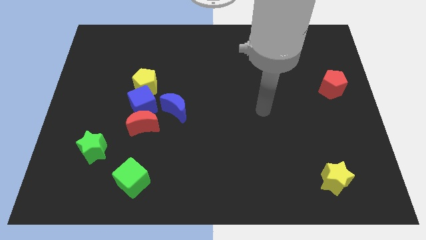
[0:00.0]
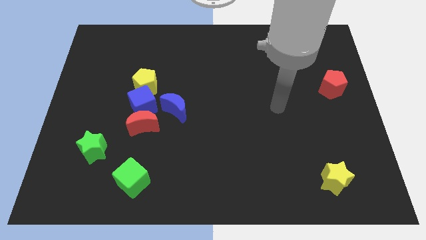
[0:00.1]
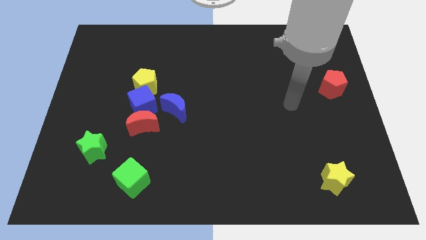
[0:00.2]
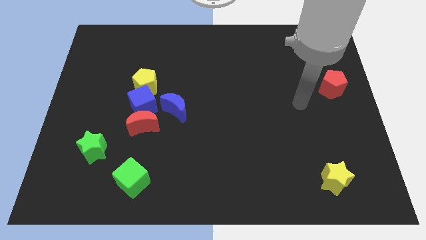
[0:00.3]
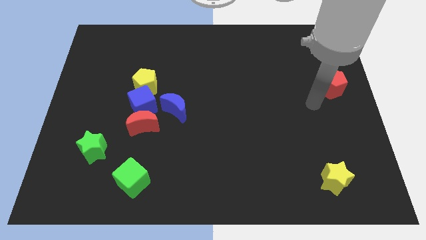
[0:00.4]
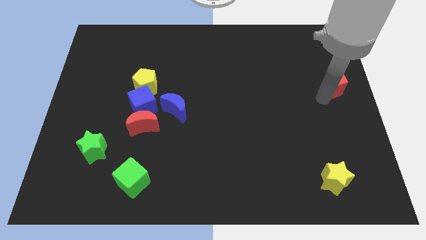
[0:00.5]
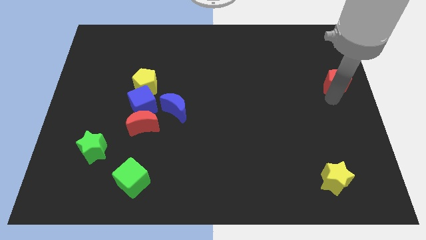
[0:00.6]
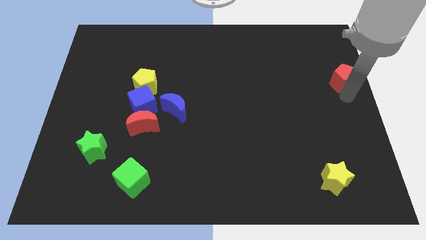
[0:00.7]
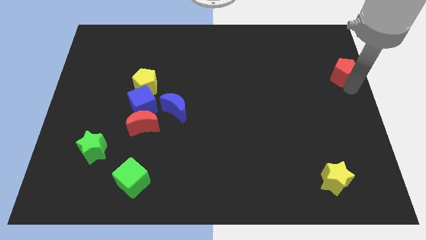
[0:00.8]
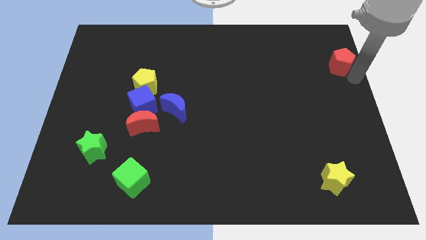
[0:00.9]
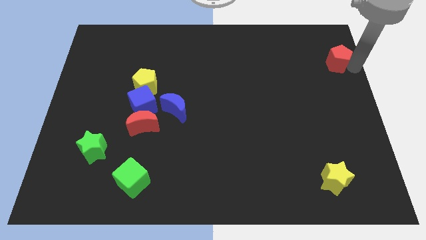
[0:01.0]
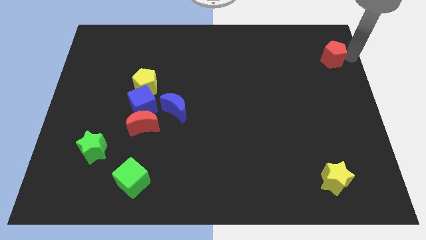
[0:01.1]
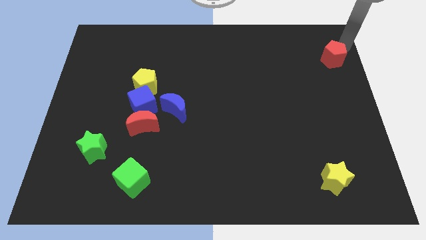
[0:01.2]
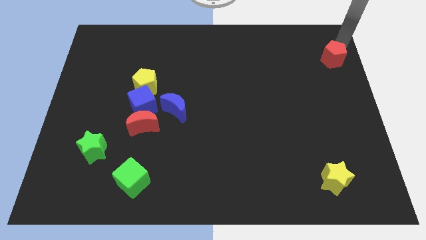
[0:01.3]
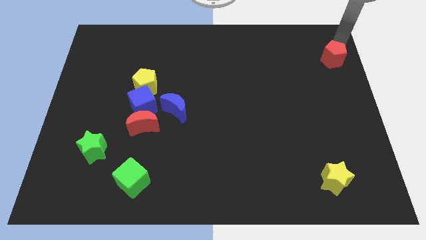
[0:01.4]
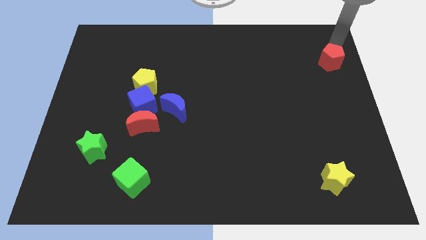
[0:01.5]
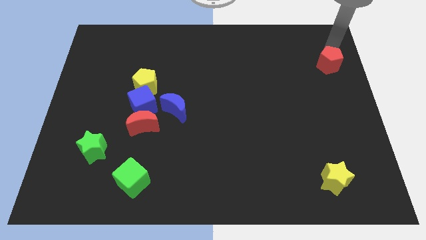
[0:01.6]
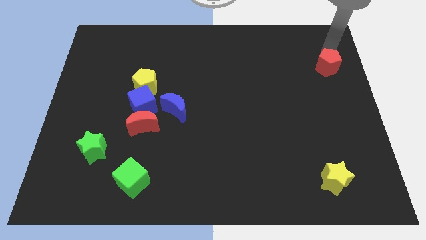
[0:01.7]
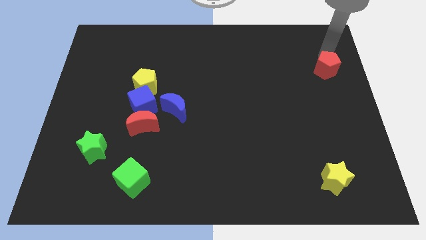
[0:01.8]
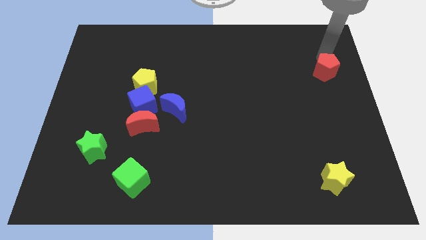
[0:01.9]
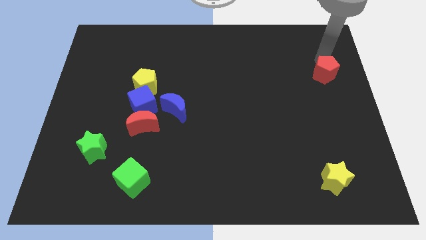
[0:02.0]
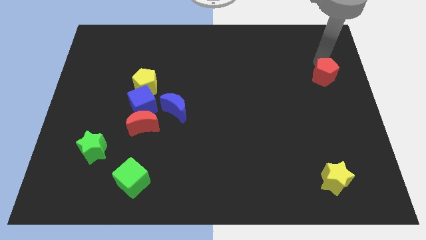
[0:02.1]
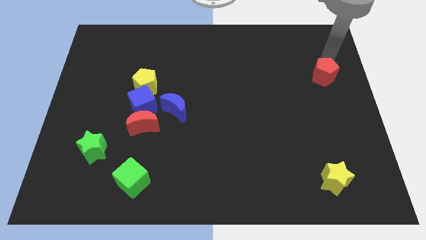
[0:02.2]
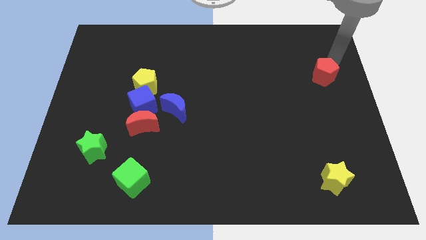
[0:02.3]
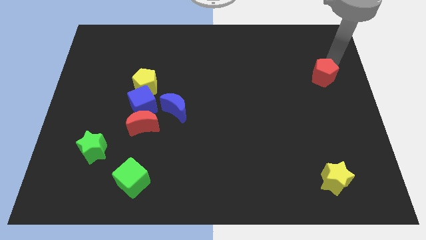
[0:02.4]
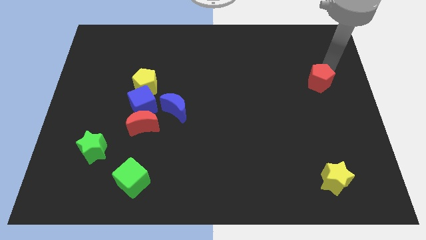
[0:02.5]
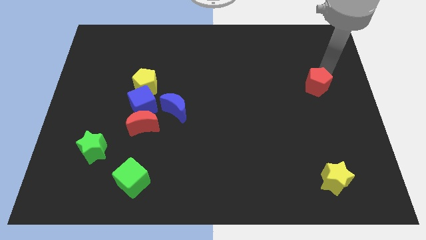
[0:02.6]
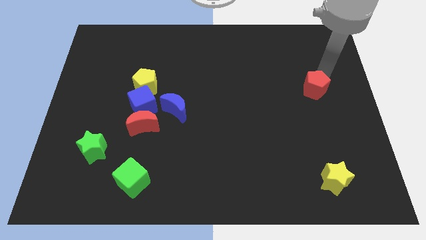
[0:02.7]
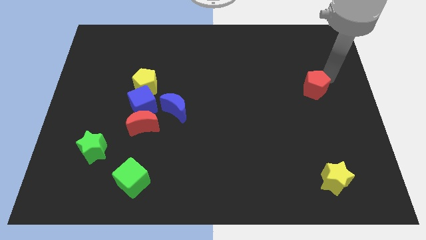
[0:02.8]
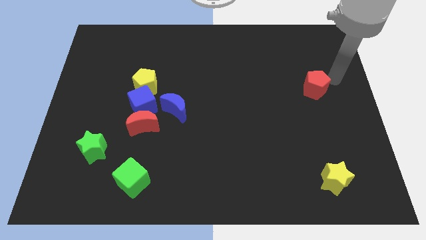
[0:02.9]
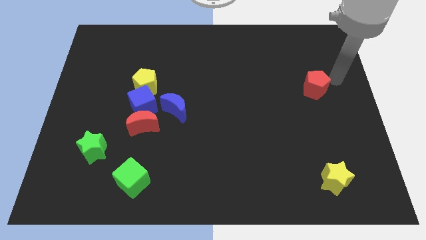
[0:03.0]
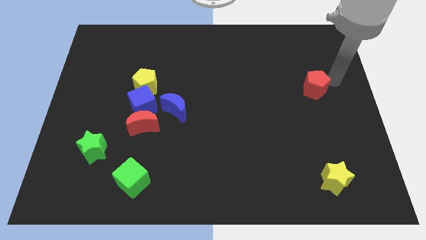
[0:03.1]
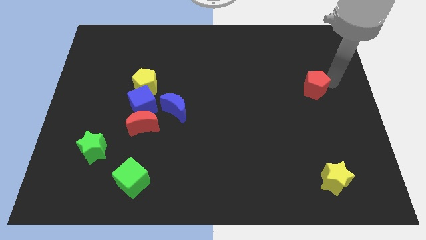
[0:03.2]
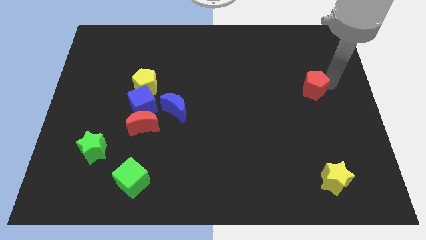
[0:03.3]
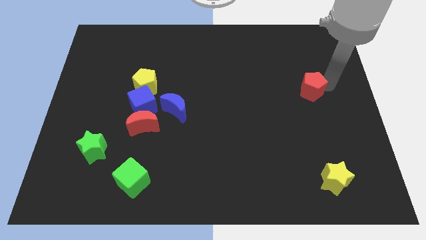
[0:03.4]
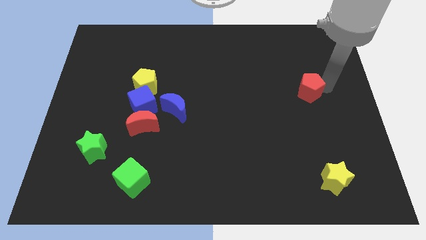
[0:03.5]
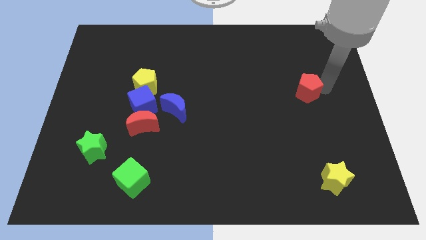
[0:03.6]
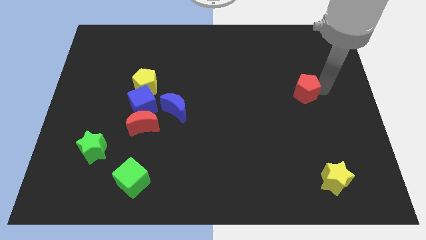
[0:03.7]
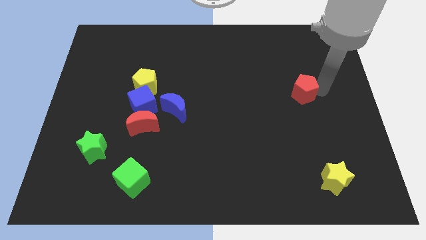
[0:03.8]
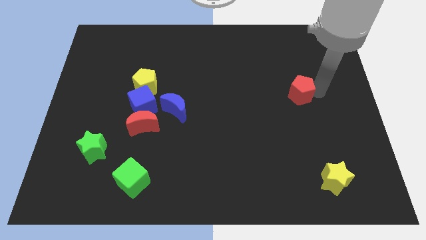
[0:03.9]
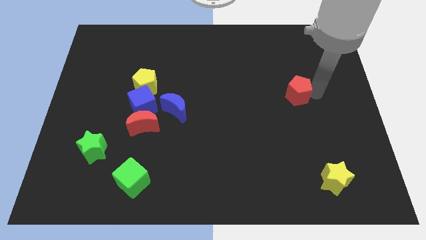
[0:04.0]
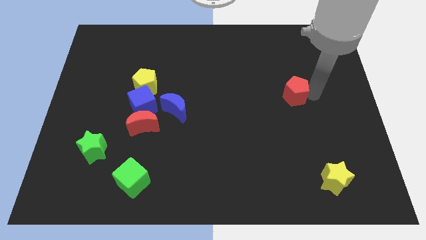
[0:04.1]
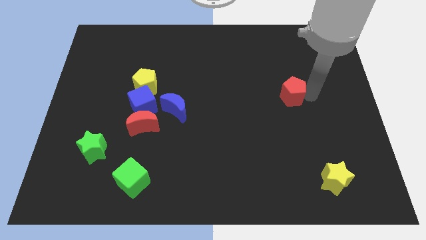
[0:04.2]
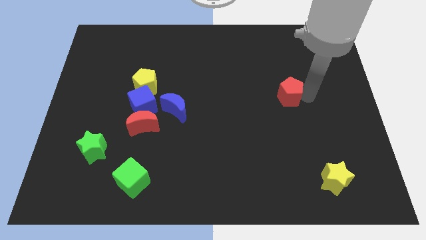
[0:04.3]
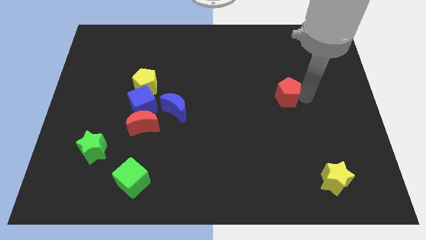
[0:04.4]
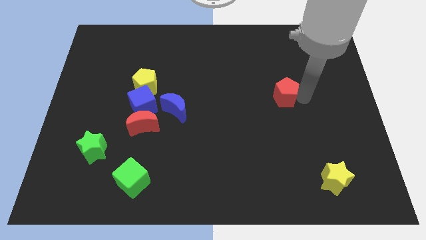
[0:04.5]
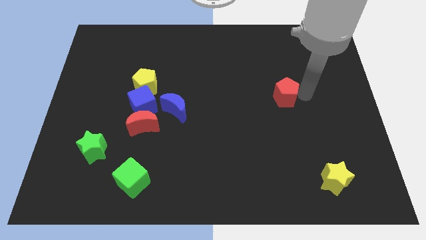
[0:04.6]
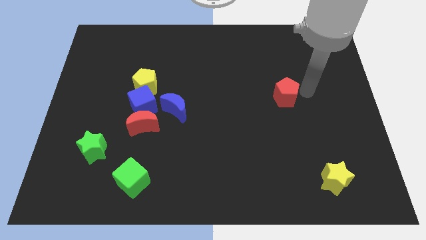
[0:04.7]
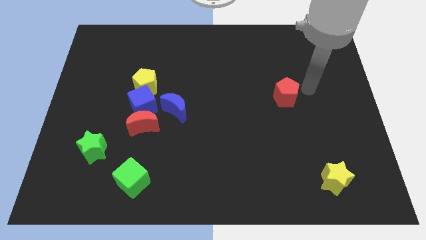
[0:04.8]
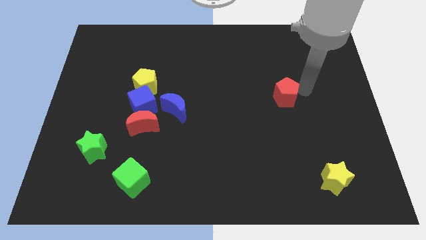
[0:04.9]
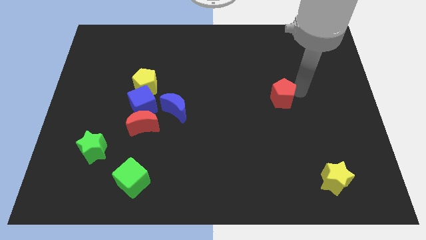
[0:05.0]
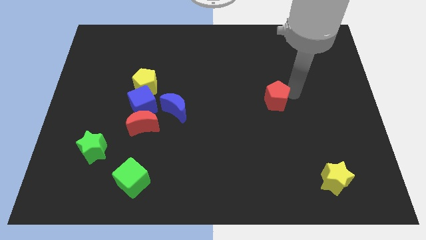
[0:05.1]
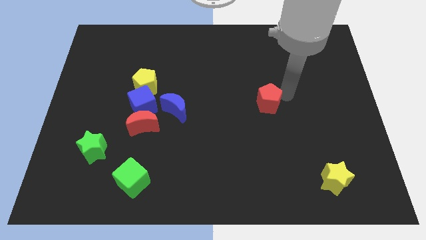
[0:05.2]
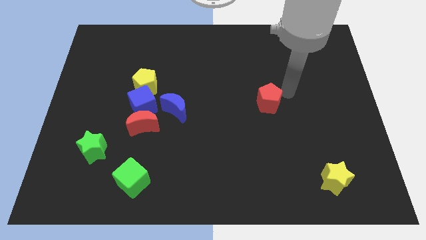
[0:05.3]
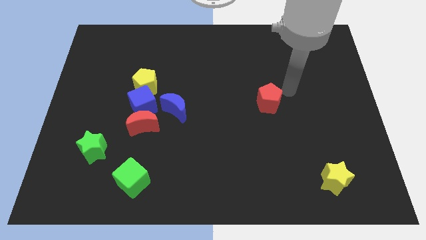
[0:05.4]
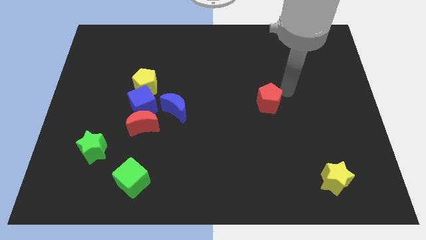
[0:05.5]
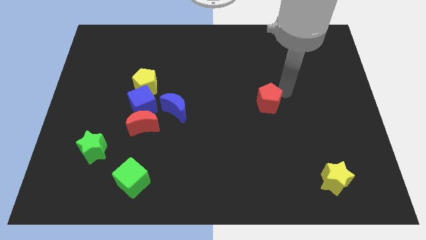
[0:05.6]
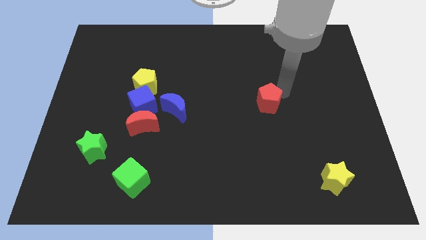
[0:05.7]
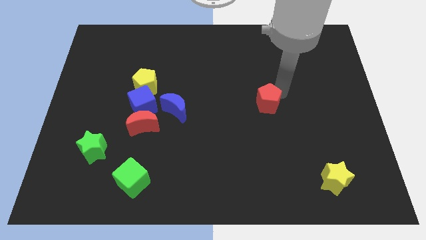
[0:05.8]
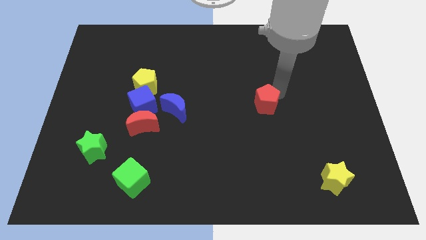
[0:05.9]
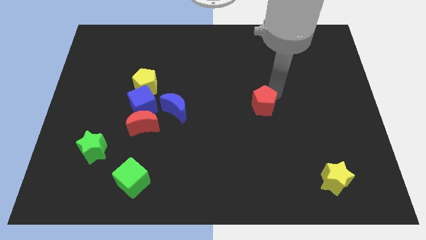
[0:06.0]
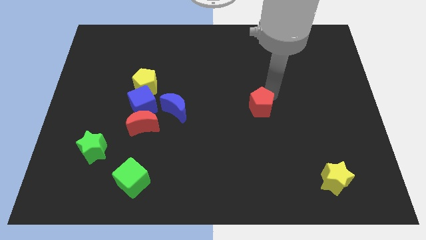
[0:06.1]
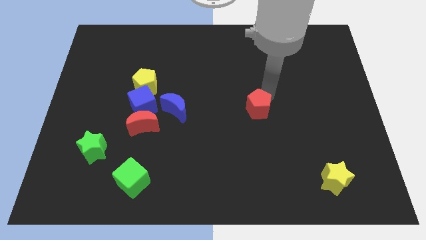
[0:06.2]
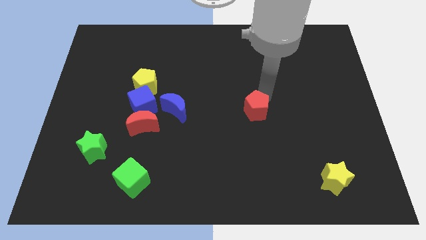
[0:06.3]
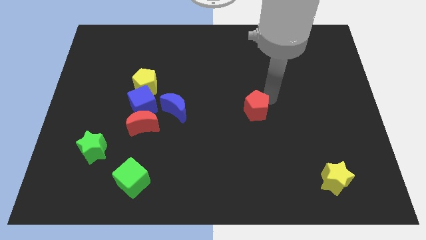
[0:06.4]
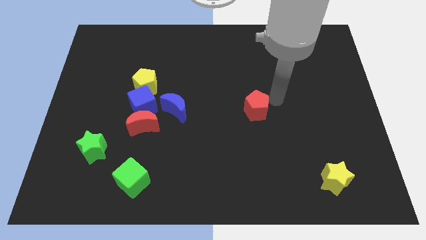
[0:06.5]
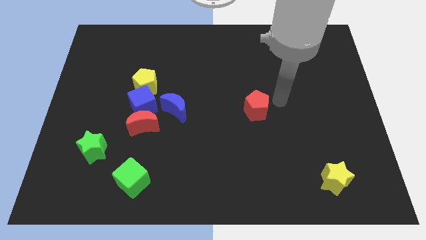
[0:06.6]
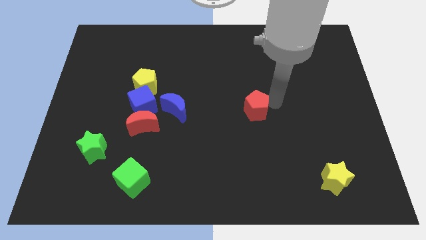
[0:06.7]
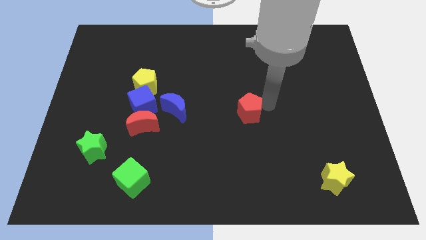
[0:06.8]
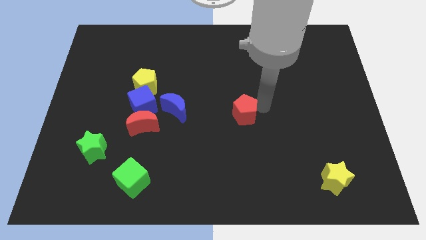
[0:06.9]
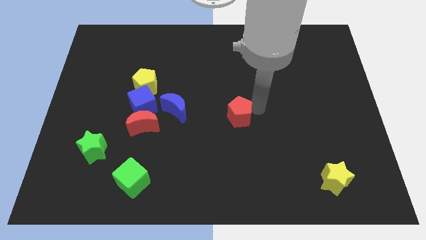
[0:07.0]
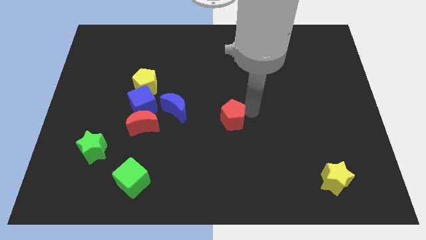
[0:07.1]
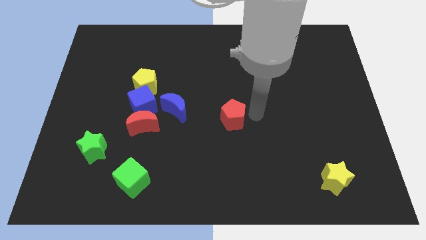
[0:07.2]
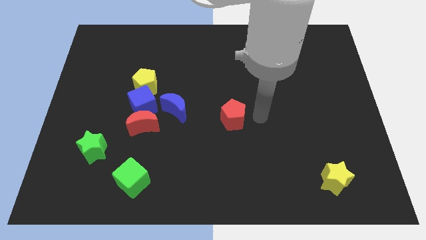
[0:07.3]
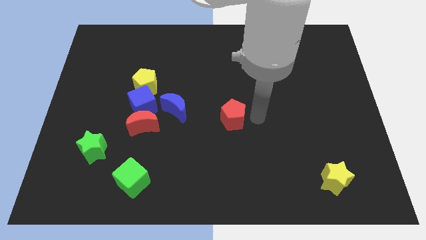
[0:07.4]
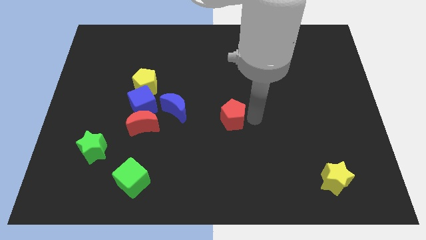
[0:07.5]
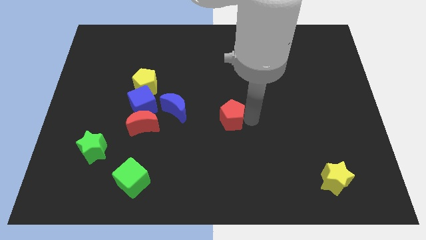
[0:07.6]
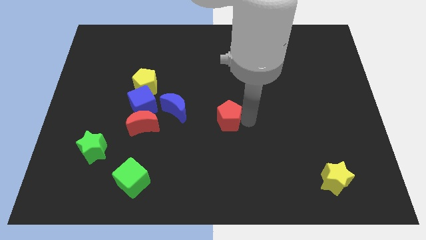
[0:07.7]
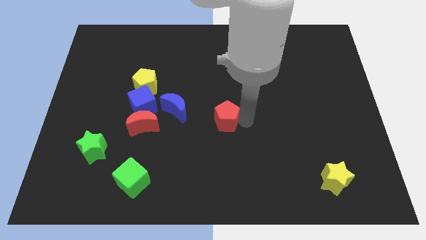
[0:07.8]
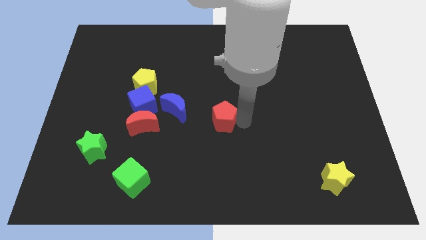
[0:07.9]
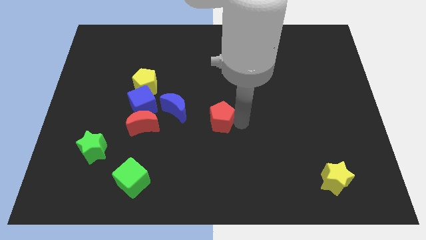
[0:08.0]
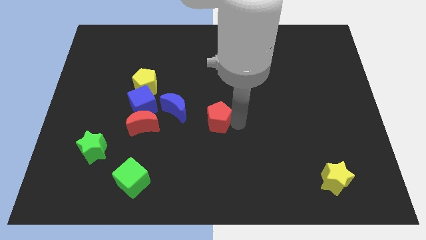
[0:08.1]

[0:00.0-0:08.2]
move the red pentagon diagonally down and to the right of the blue moon
